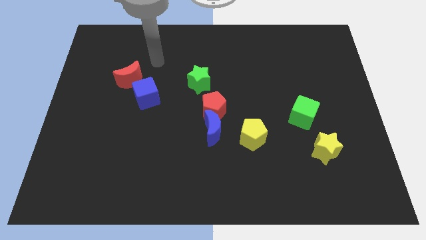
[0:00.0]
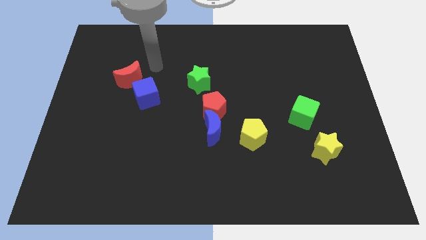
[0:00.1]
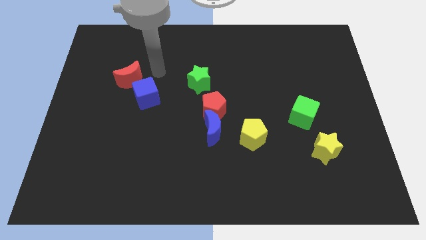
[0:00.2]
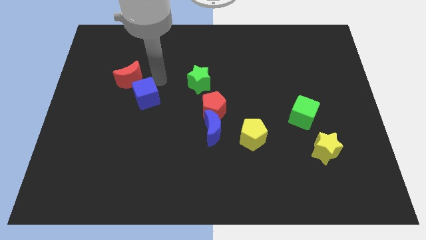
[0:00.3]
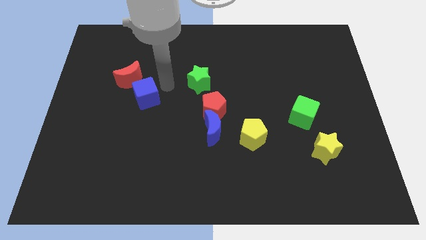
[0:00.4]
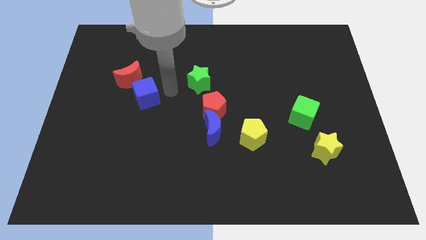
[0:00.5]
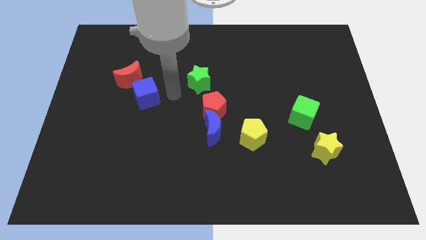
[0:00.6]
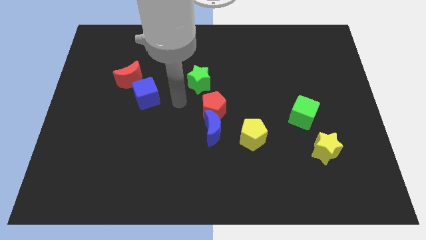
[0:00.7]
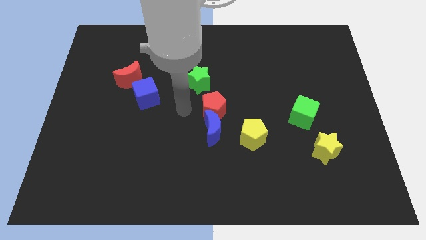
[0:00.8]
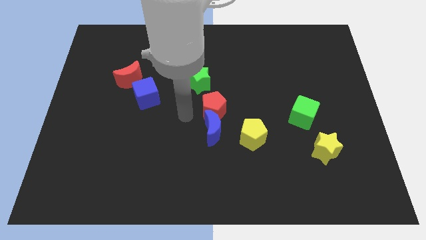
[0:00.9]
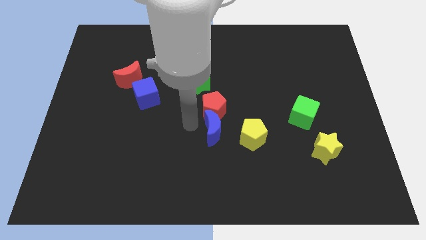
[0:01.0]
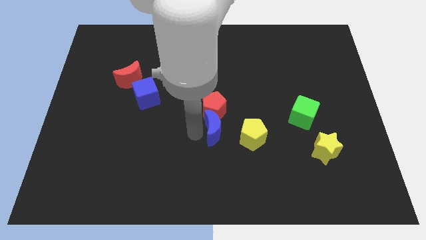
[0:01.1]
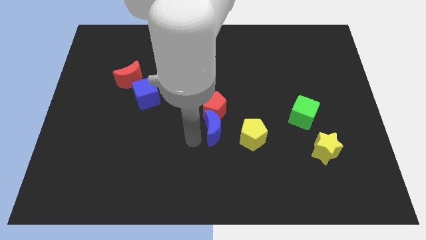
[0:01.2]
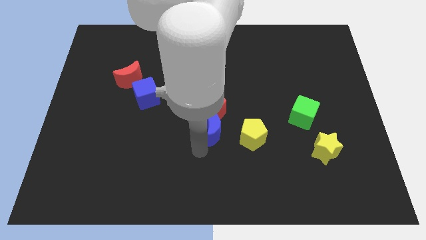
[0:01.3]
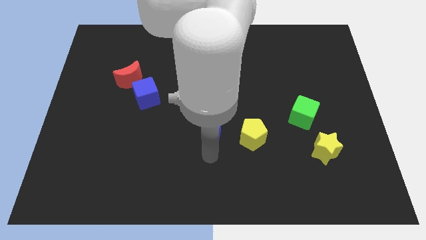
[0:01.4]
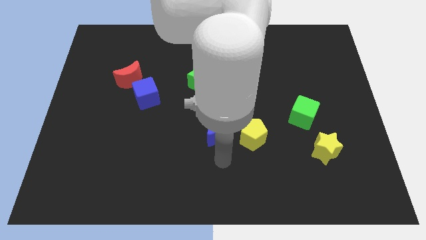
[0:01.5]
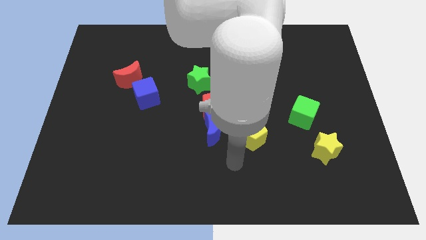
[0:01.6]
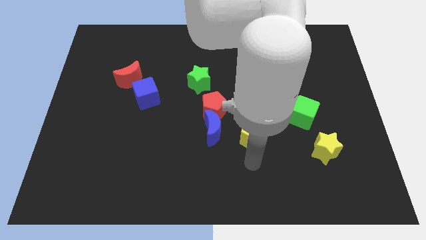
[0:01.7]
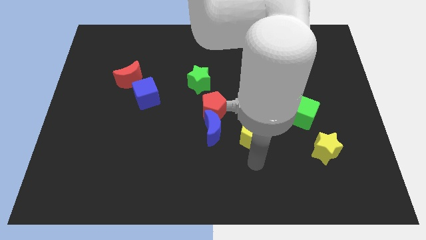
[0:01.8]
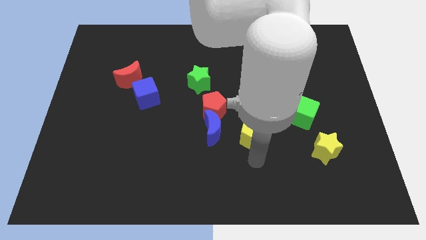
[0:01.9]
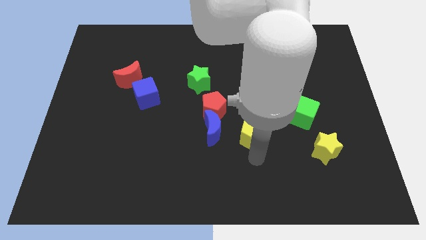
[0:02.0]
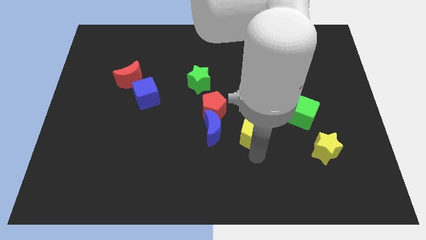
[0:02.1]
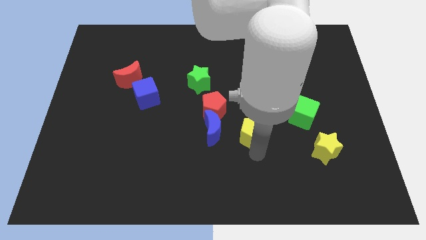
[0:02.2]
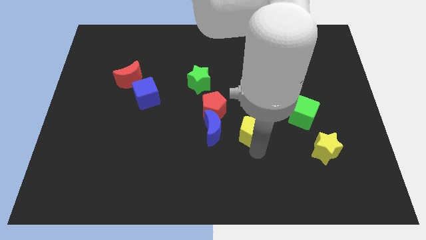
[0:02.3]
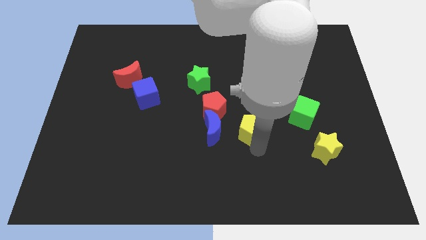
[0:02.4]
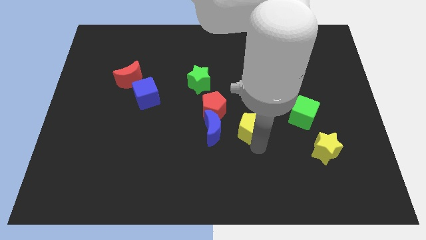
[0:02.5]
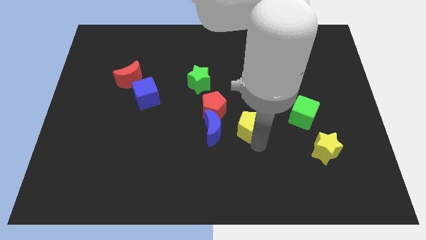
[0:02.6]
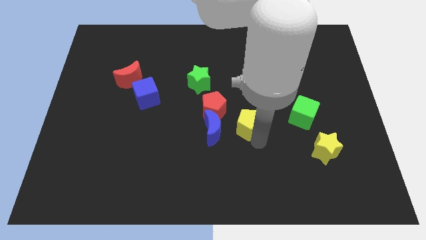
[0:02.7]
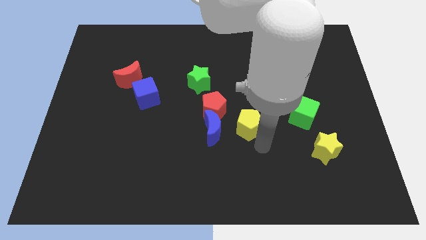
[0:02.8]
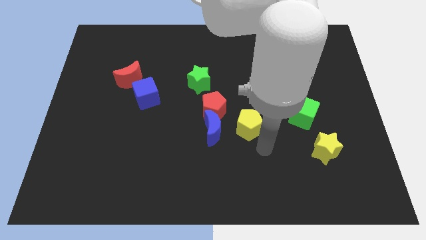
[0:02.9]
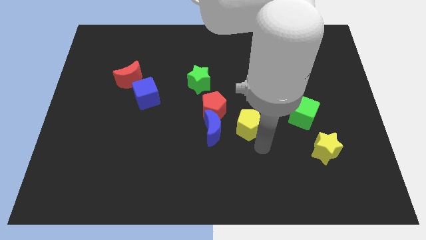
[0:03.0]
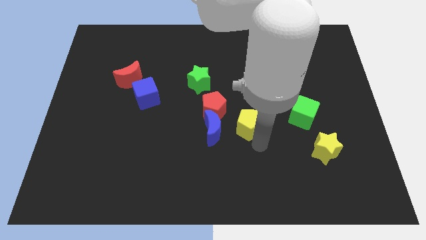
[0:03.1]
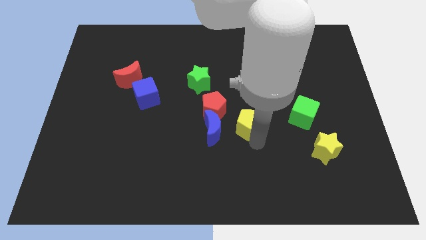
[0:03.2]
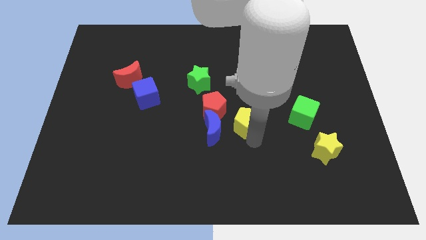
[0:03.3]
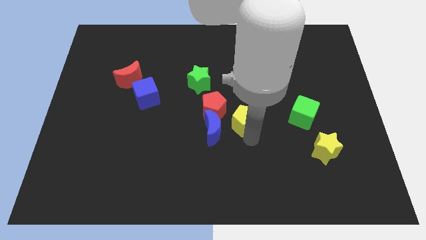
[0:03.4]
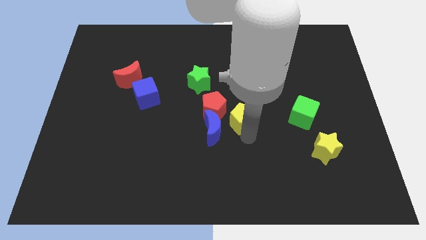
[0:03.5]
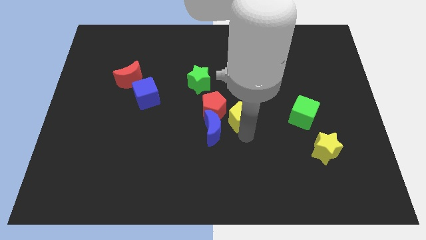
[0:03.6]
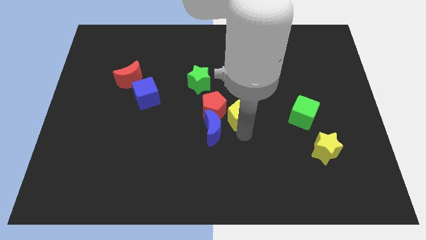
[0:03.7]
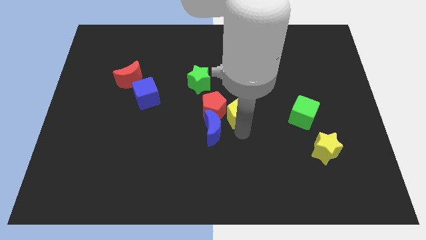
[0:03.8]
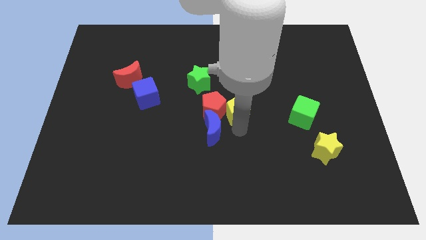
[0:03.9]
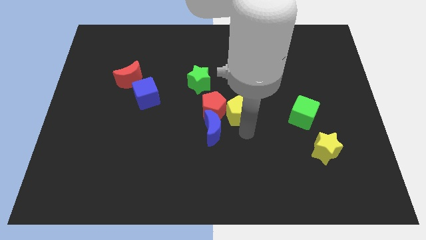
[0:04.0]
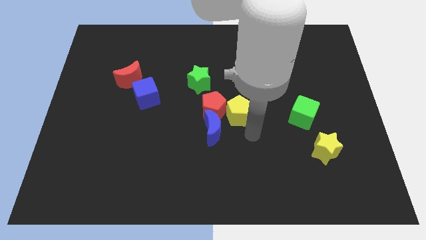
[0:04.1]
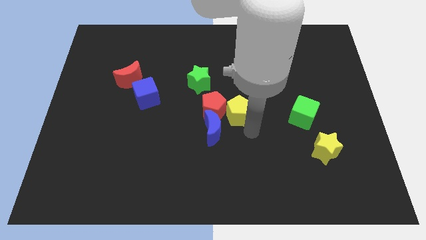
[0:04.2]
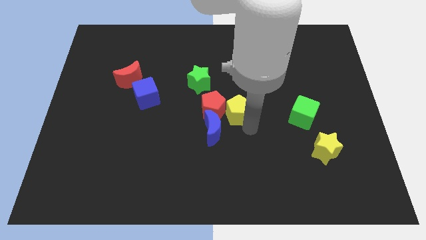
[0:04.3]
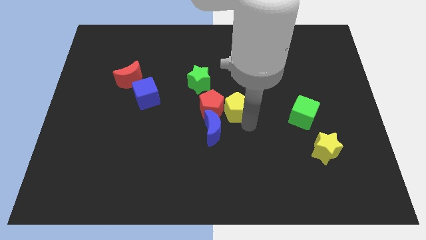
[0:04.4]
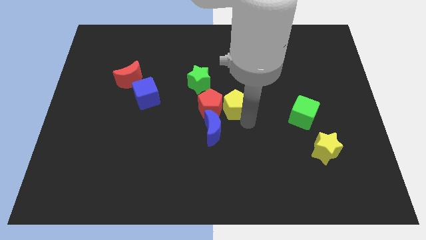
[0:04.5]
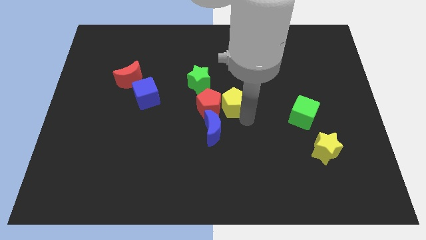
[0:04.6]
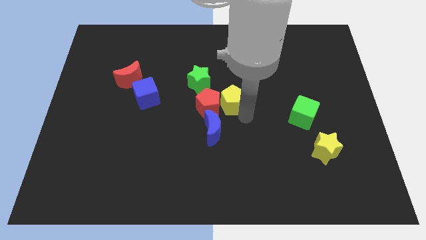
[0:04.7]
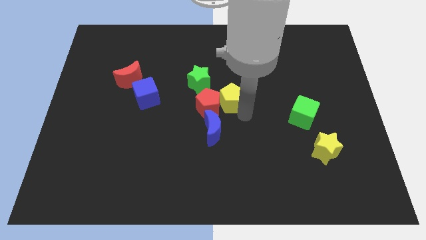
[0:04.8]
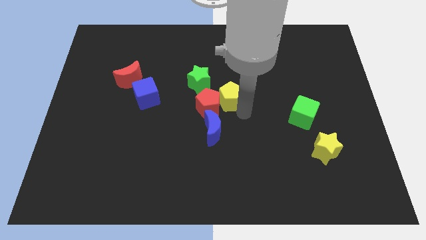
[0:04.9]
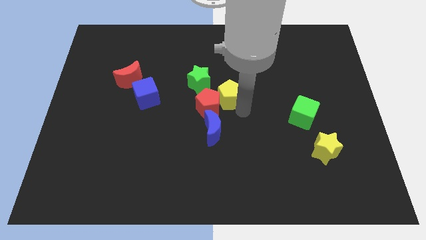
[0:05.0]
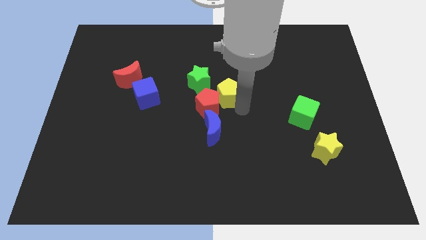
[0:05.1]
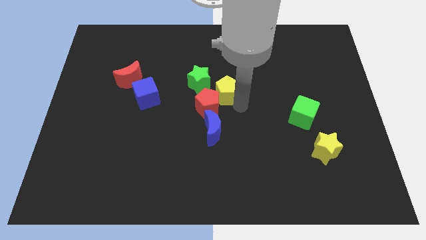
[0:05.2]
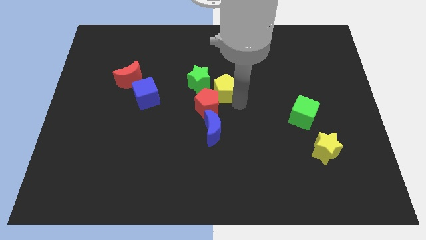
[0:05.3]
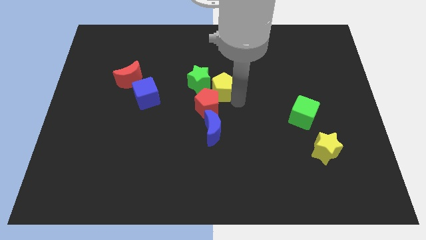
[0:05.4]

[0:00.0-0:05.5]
move the yellow pentagon close to the green star

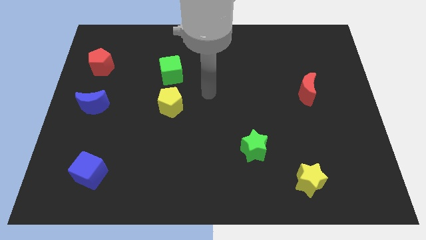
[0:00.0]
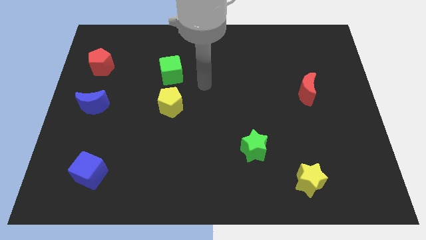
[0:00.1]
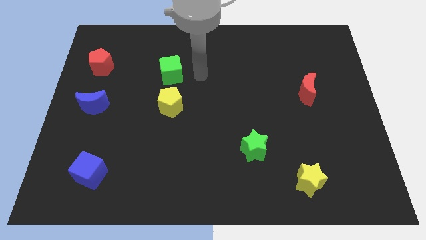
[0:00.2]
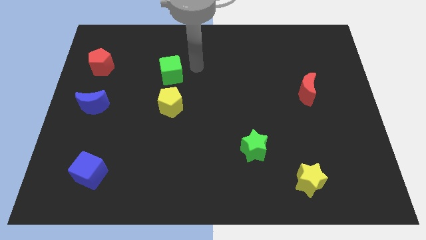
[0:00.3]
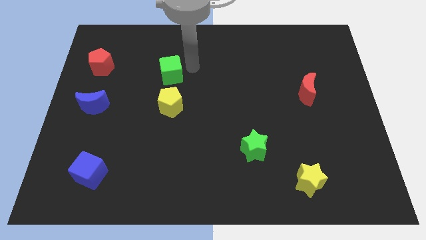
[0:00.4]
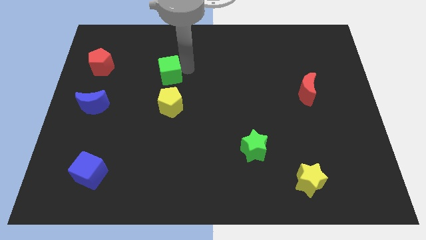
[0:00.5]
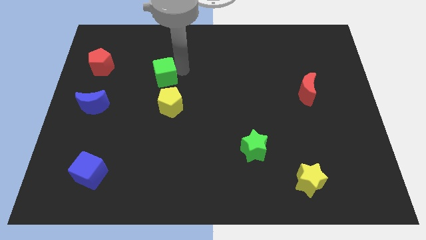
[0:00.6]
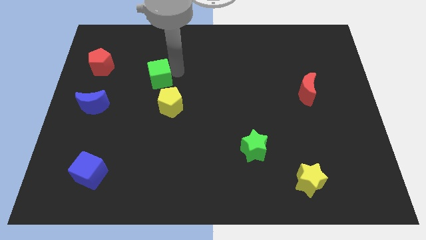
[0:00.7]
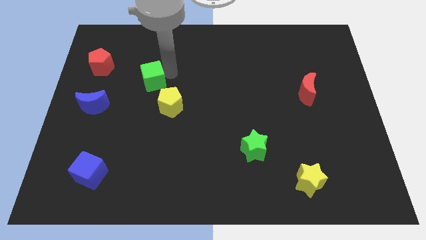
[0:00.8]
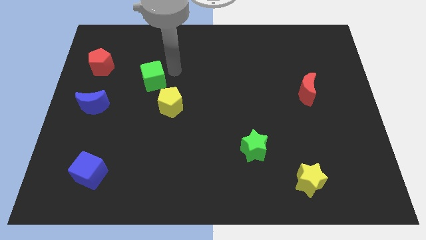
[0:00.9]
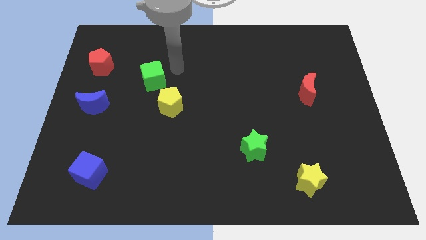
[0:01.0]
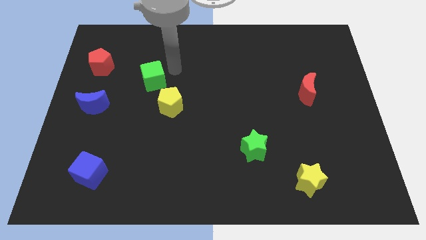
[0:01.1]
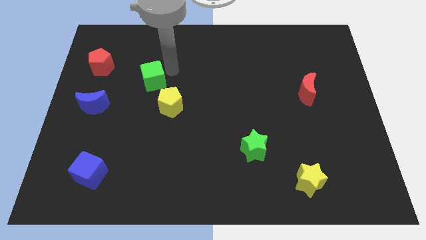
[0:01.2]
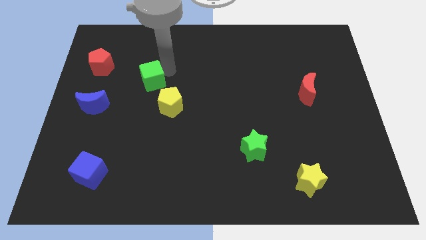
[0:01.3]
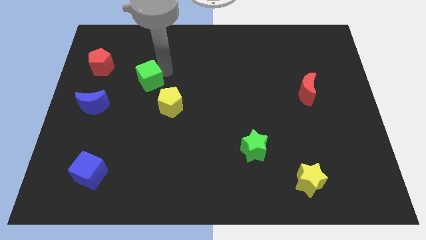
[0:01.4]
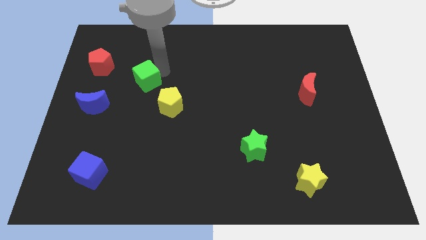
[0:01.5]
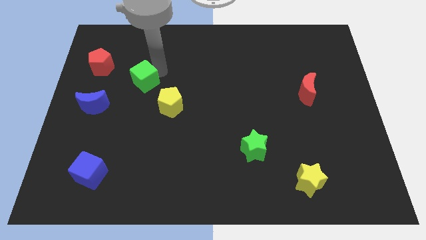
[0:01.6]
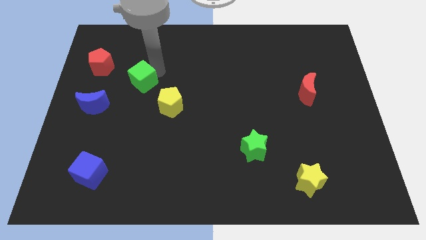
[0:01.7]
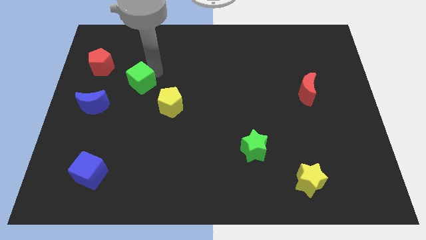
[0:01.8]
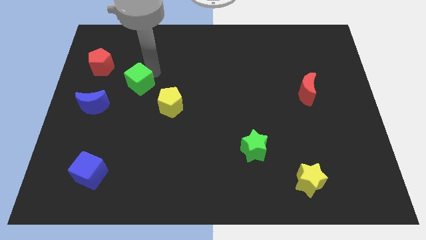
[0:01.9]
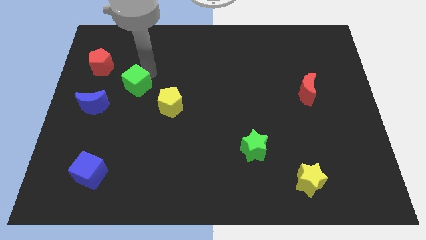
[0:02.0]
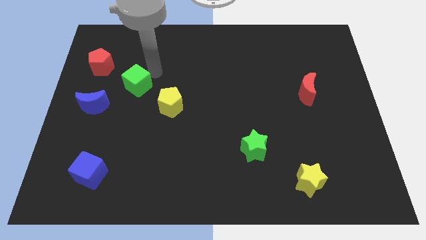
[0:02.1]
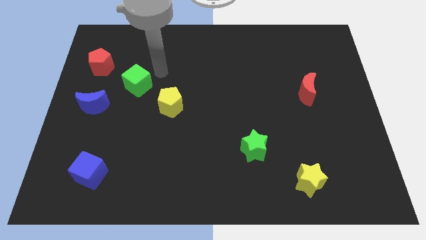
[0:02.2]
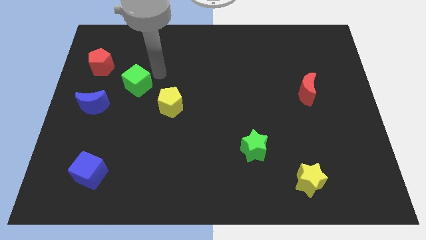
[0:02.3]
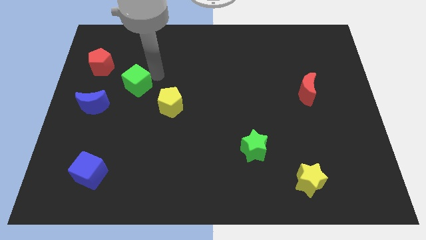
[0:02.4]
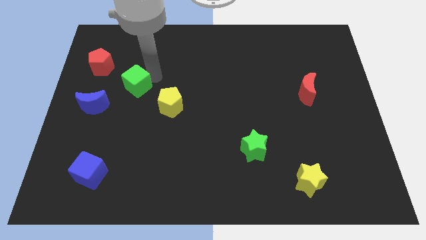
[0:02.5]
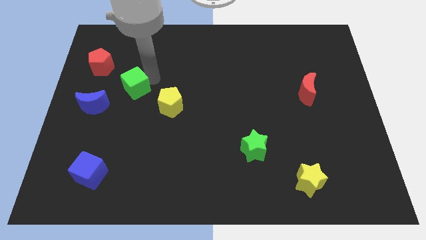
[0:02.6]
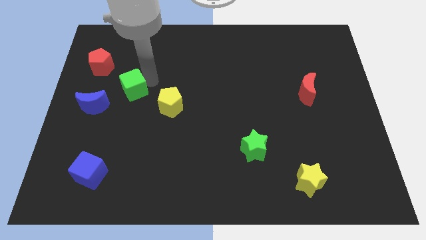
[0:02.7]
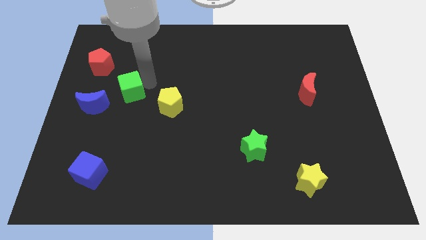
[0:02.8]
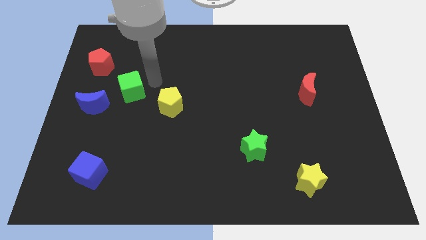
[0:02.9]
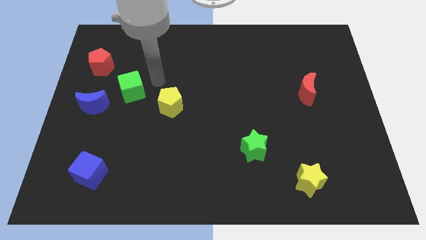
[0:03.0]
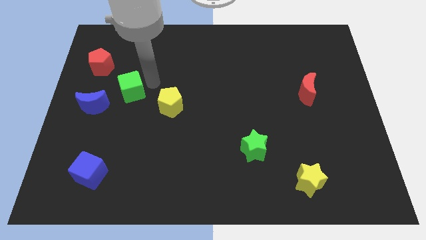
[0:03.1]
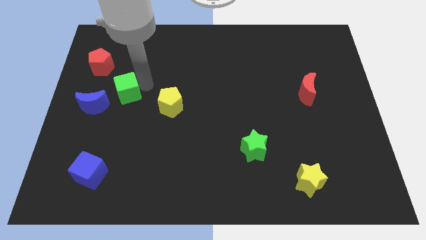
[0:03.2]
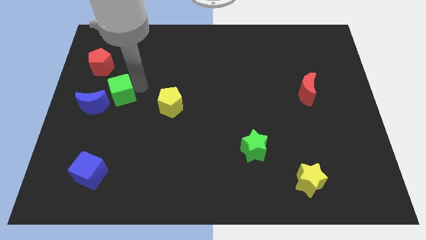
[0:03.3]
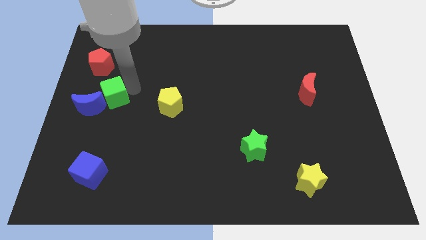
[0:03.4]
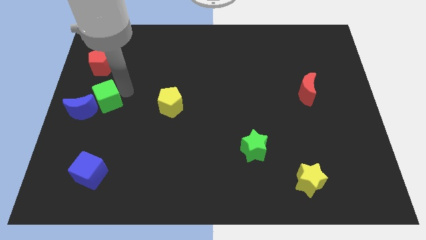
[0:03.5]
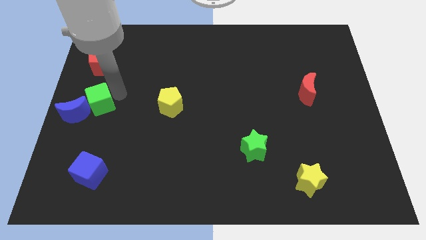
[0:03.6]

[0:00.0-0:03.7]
put the green cube to the blue moon
